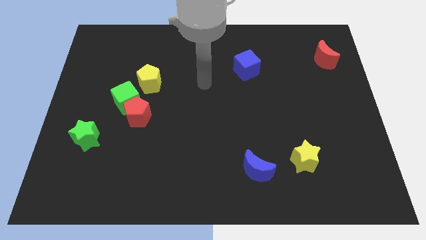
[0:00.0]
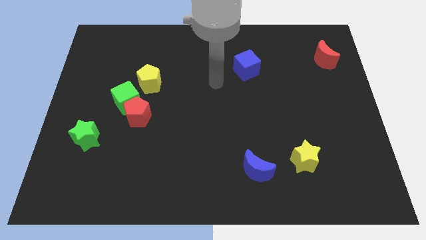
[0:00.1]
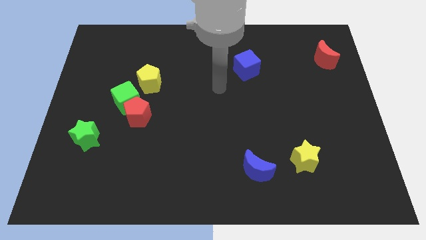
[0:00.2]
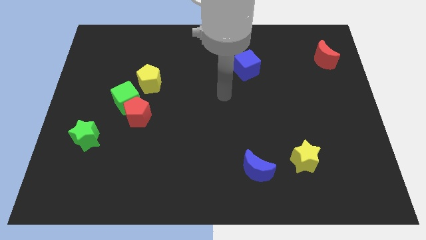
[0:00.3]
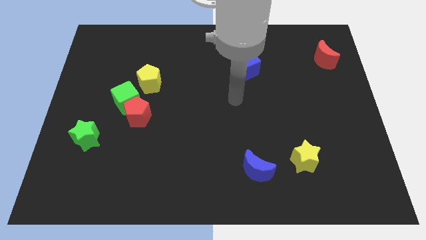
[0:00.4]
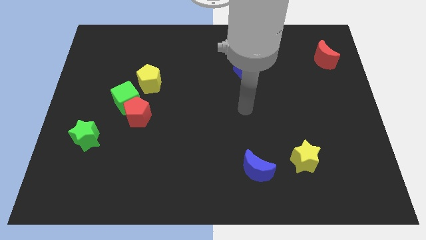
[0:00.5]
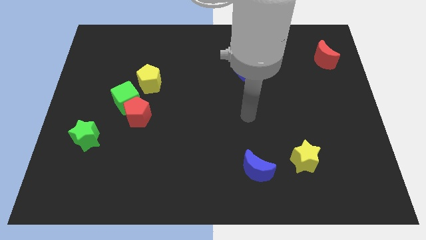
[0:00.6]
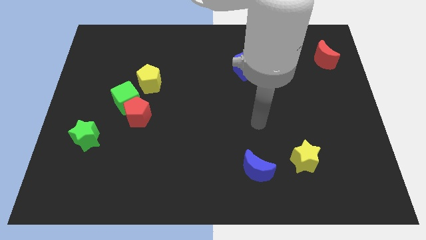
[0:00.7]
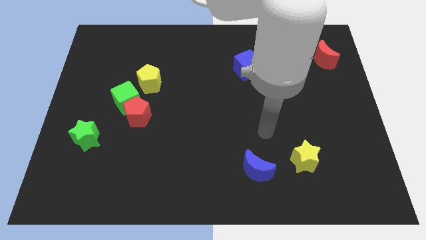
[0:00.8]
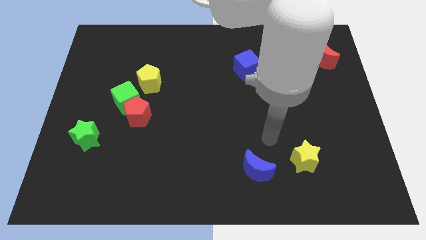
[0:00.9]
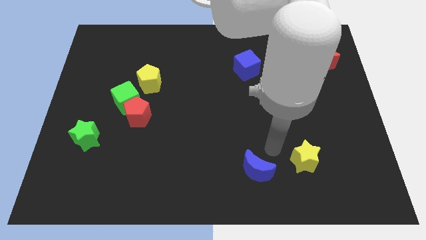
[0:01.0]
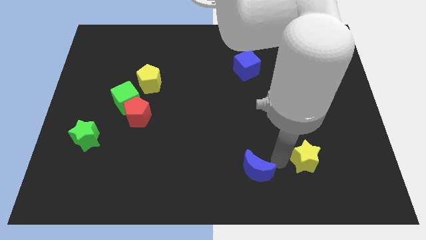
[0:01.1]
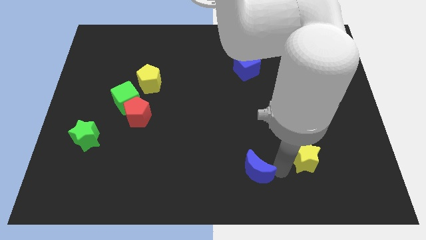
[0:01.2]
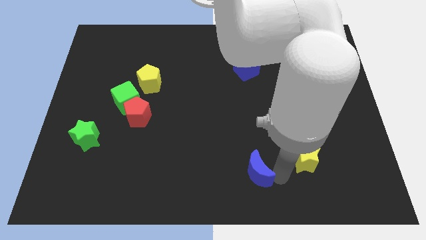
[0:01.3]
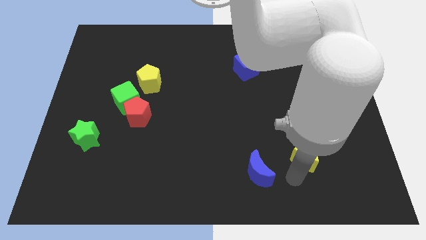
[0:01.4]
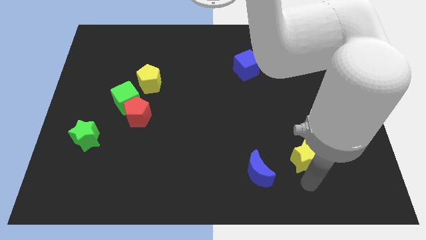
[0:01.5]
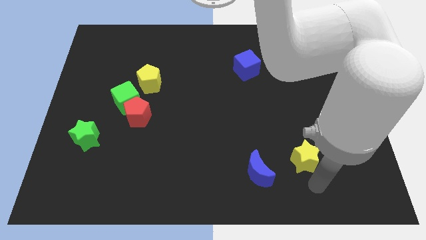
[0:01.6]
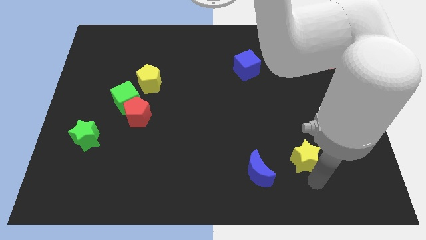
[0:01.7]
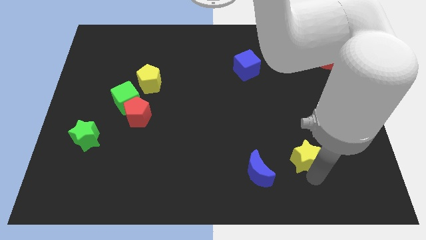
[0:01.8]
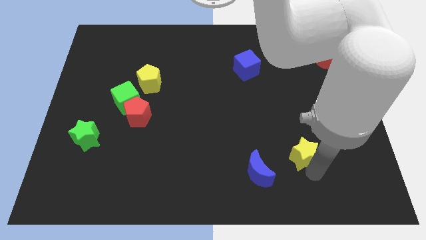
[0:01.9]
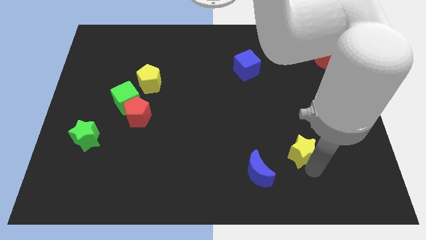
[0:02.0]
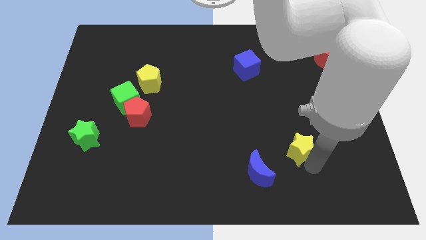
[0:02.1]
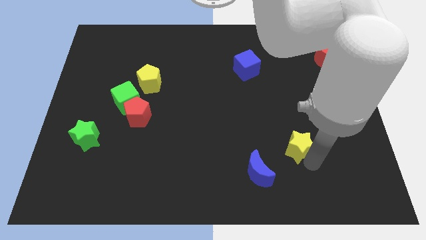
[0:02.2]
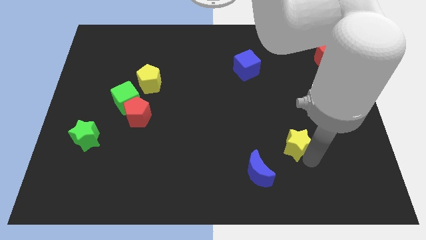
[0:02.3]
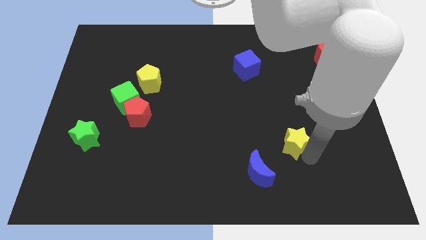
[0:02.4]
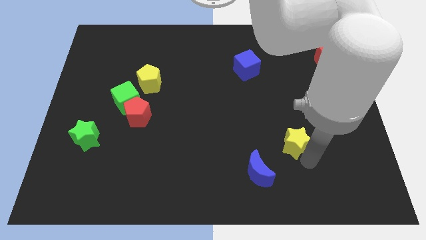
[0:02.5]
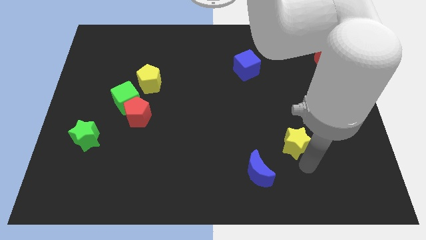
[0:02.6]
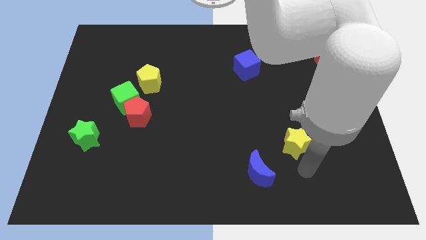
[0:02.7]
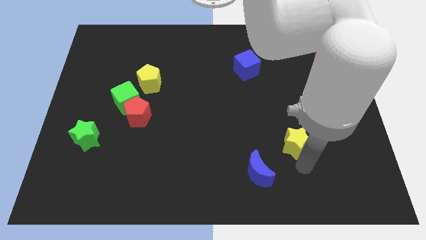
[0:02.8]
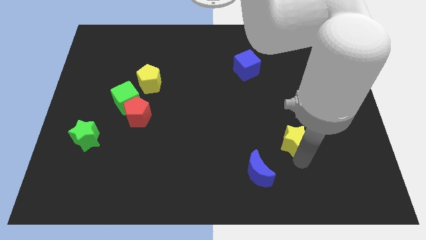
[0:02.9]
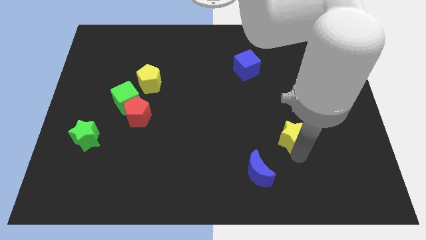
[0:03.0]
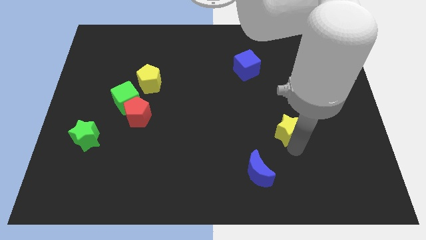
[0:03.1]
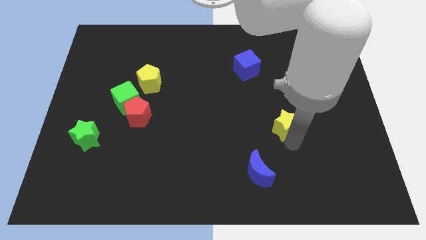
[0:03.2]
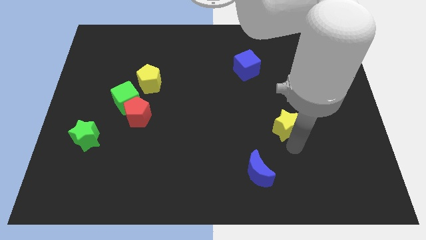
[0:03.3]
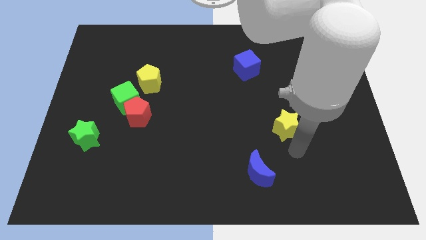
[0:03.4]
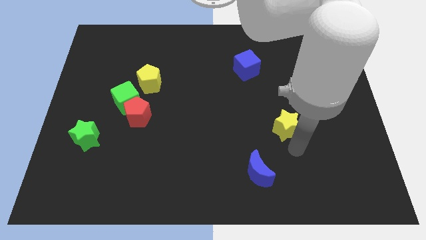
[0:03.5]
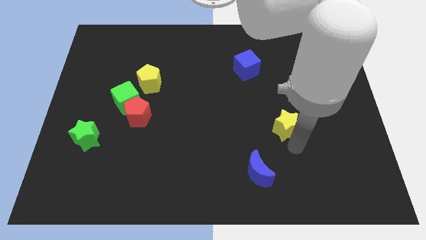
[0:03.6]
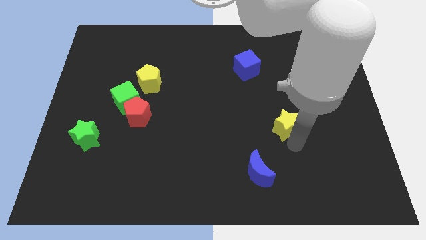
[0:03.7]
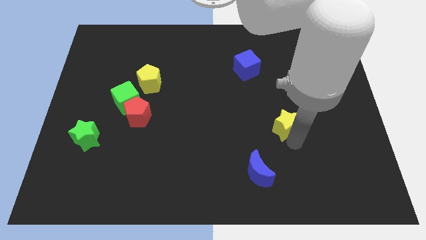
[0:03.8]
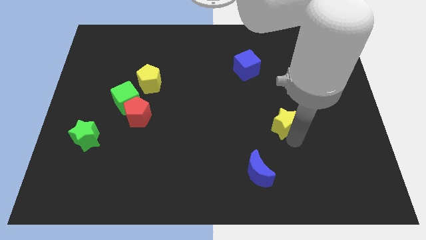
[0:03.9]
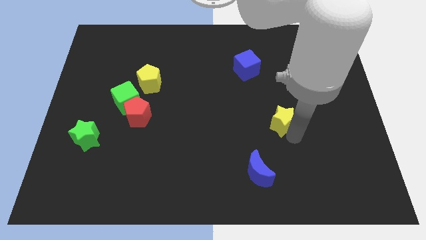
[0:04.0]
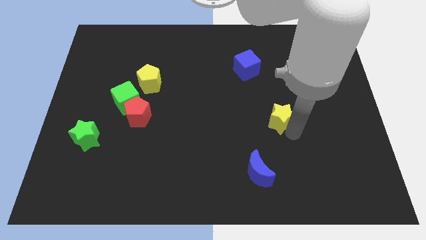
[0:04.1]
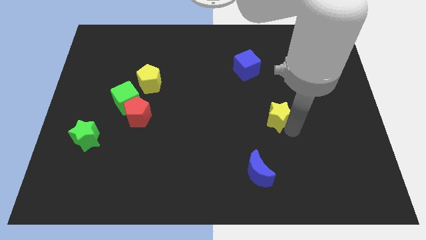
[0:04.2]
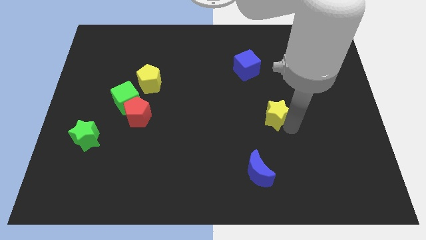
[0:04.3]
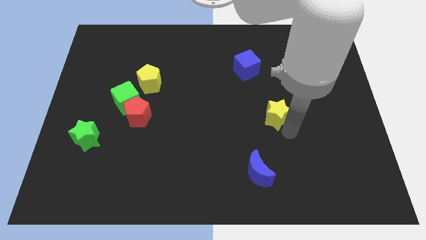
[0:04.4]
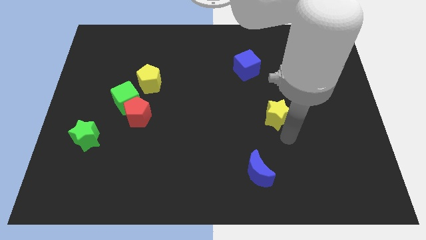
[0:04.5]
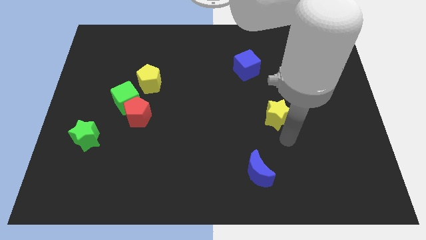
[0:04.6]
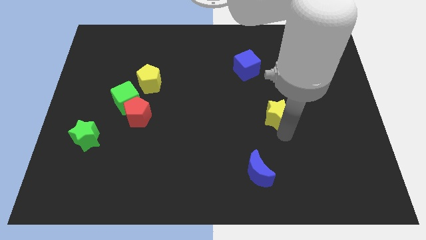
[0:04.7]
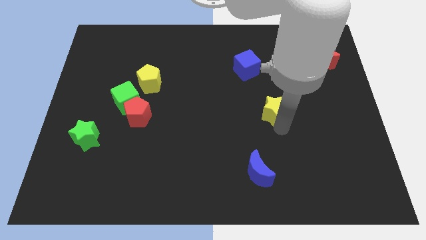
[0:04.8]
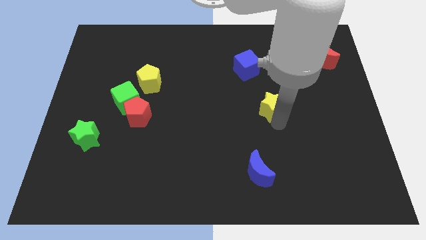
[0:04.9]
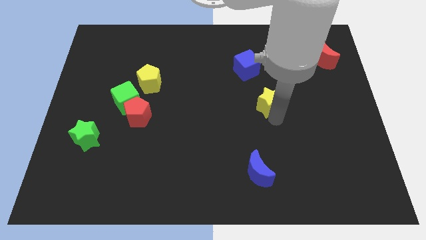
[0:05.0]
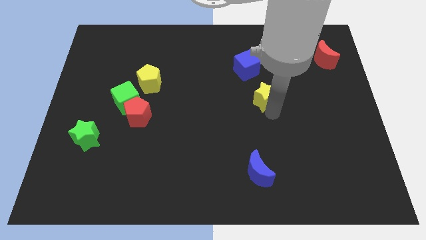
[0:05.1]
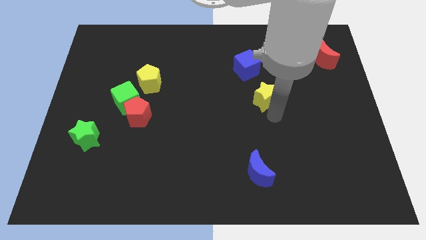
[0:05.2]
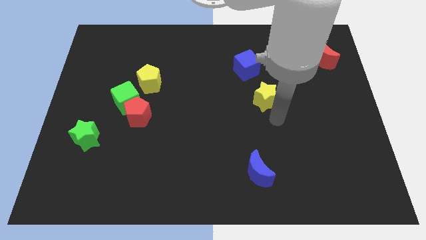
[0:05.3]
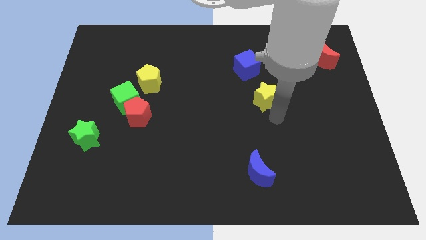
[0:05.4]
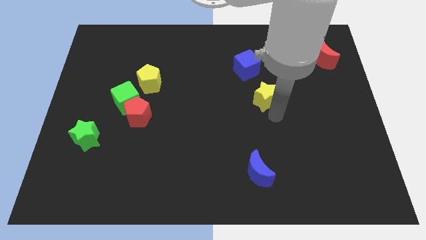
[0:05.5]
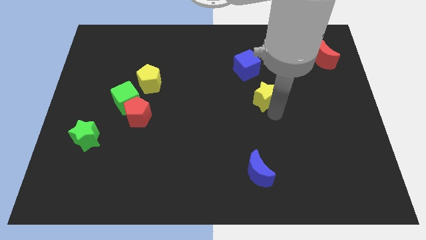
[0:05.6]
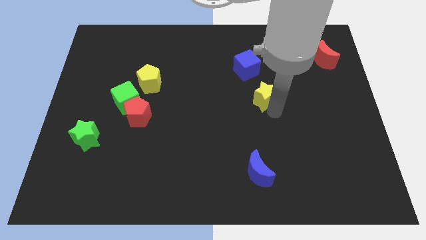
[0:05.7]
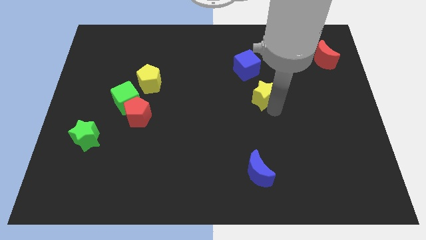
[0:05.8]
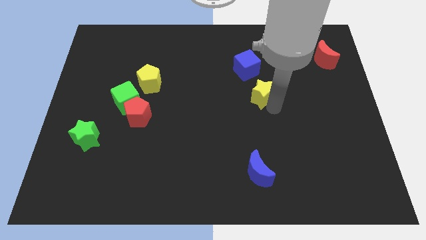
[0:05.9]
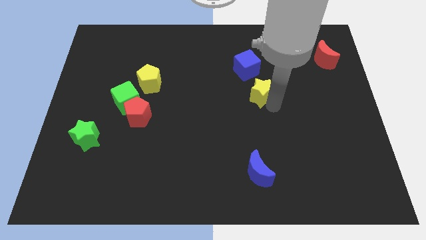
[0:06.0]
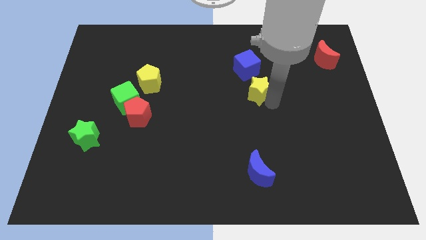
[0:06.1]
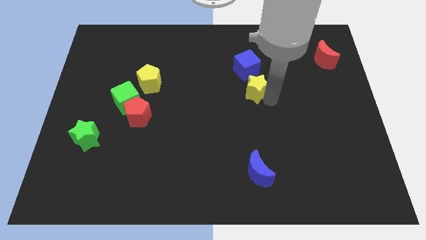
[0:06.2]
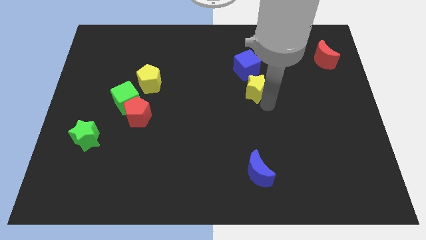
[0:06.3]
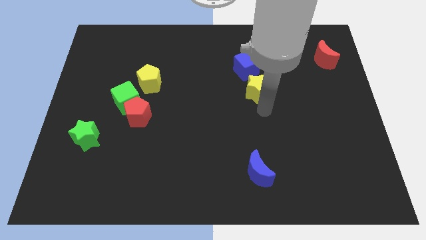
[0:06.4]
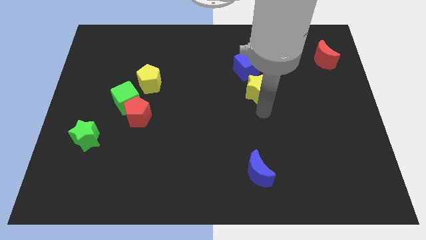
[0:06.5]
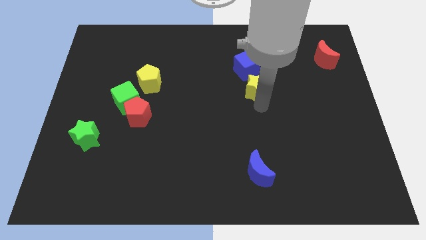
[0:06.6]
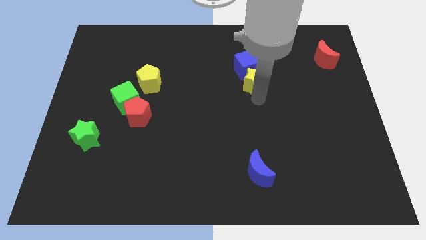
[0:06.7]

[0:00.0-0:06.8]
move the yellow star towards the blue cube

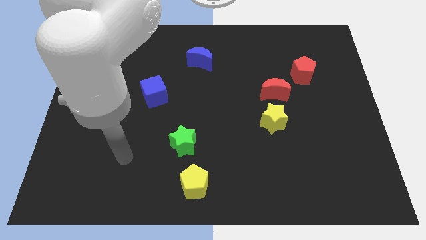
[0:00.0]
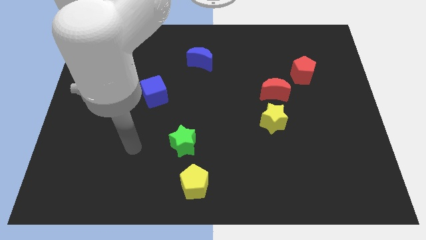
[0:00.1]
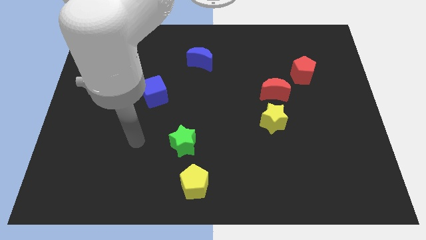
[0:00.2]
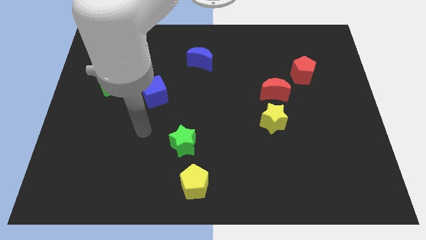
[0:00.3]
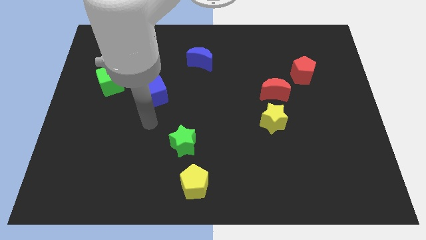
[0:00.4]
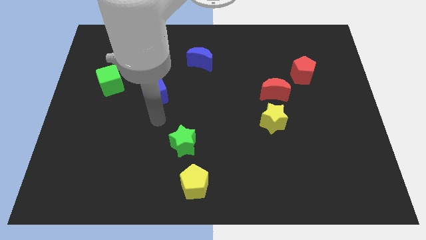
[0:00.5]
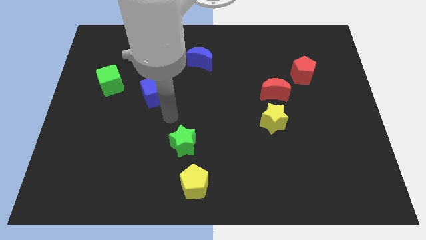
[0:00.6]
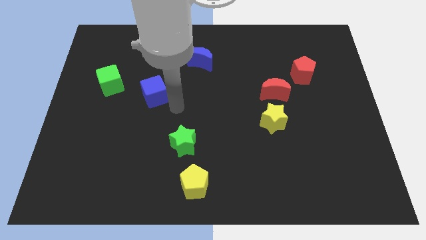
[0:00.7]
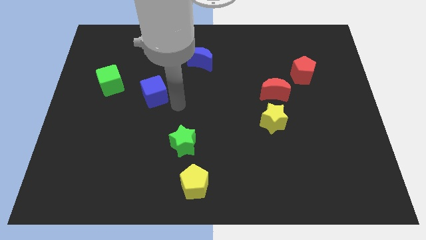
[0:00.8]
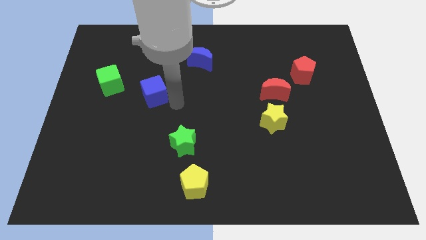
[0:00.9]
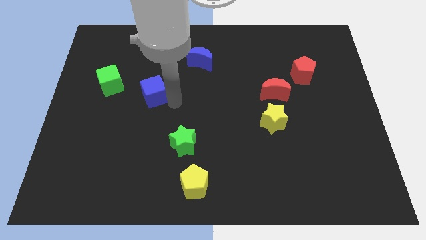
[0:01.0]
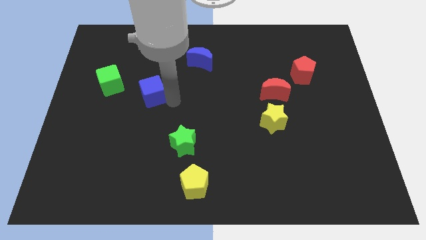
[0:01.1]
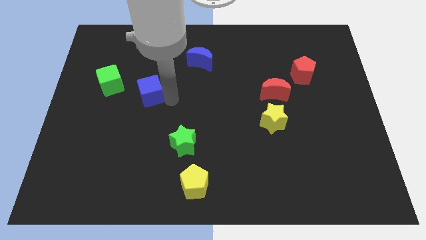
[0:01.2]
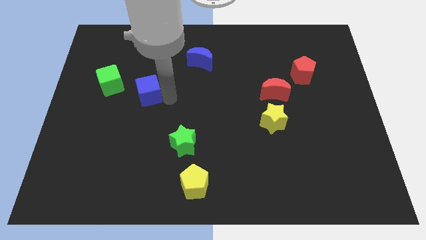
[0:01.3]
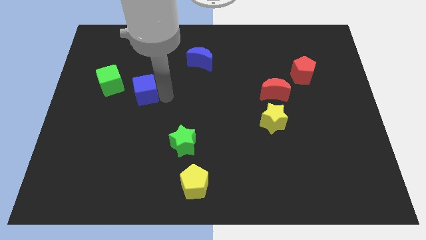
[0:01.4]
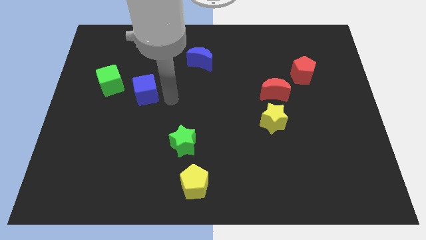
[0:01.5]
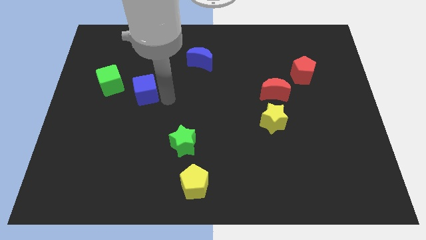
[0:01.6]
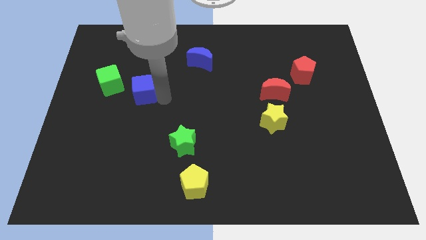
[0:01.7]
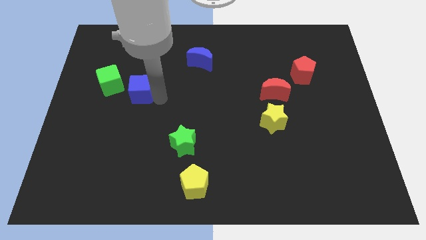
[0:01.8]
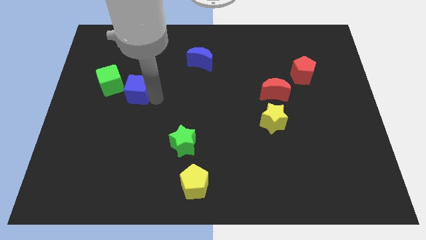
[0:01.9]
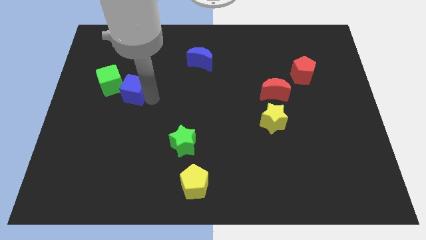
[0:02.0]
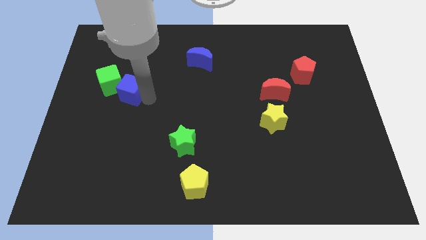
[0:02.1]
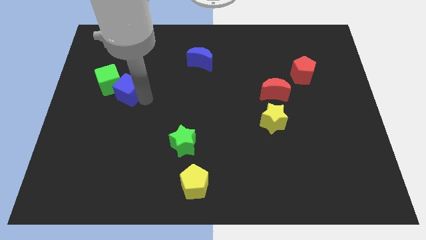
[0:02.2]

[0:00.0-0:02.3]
move the blue cube close to the green cube
